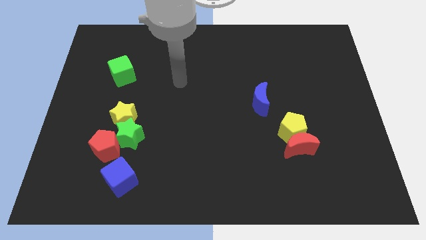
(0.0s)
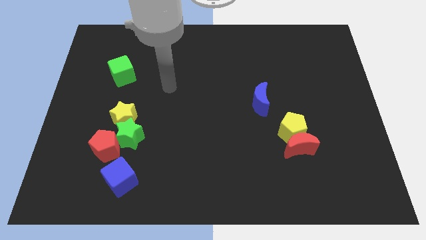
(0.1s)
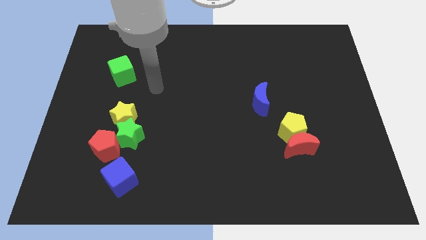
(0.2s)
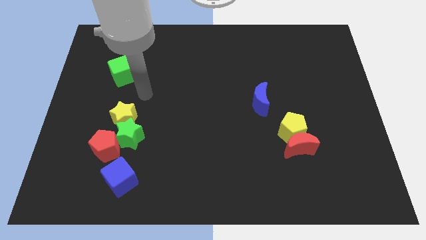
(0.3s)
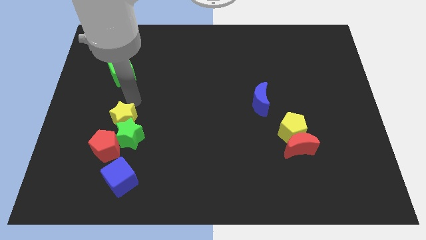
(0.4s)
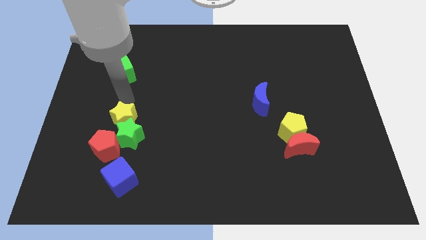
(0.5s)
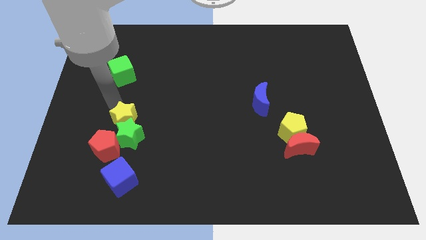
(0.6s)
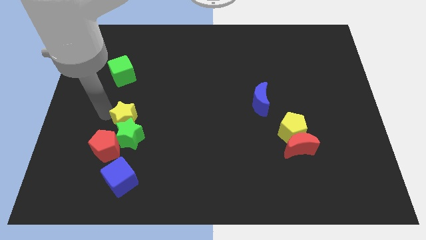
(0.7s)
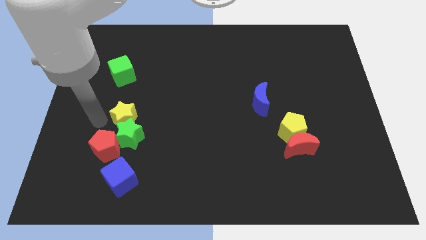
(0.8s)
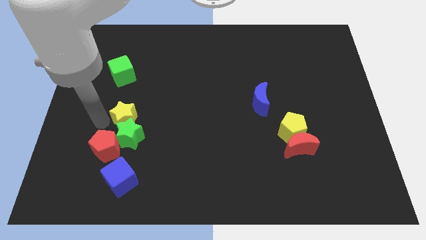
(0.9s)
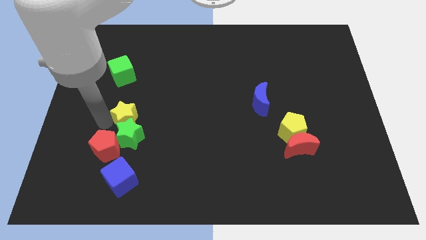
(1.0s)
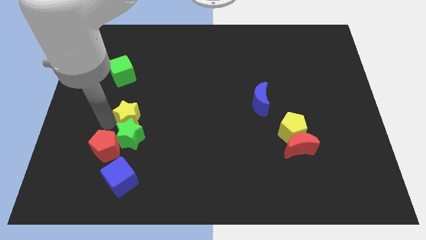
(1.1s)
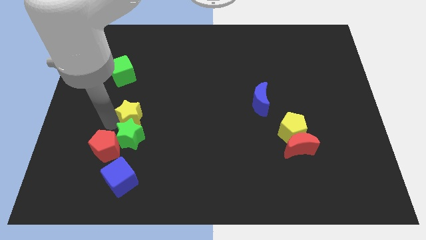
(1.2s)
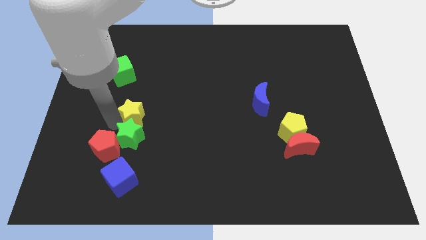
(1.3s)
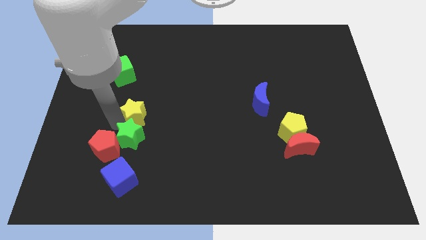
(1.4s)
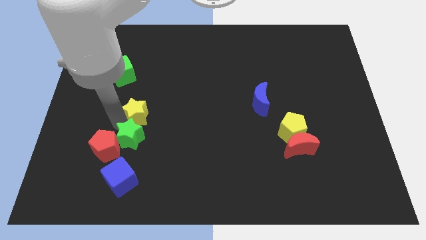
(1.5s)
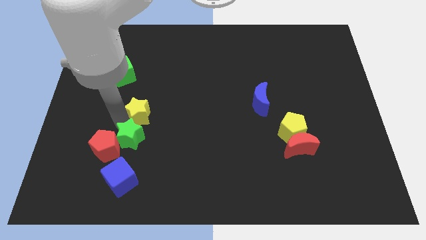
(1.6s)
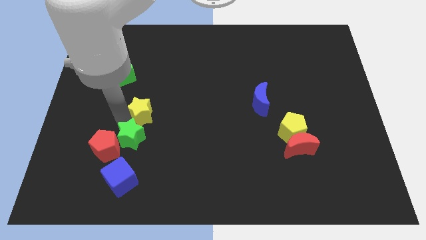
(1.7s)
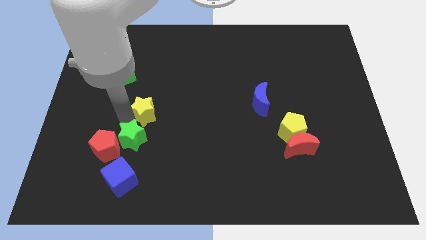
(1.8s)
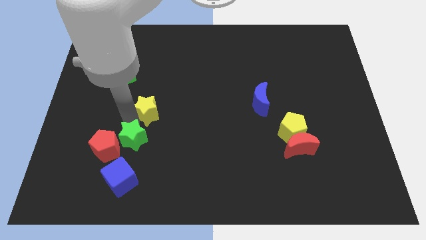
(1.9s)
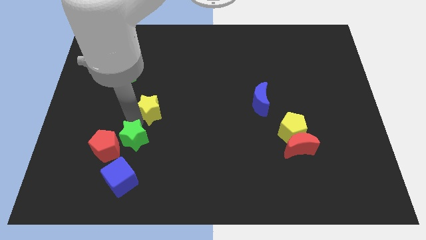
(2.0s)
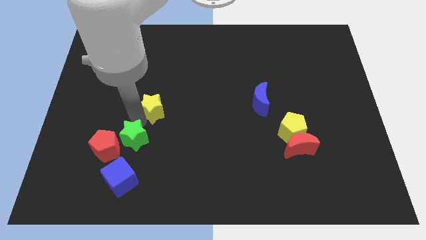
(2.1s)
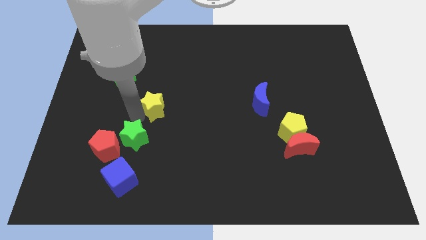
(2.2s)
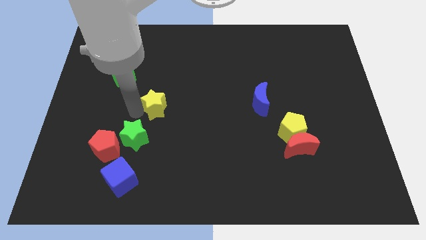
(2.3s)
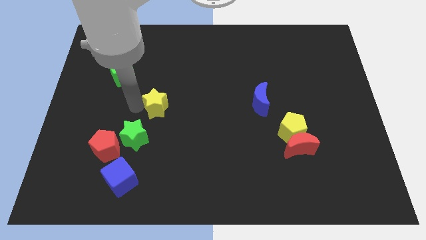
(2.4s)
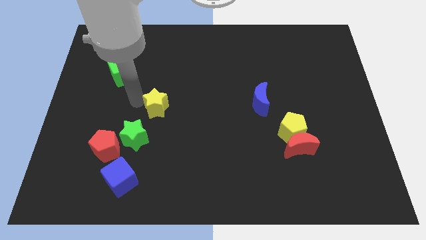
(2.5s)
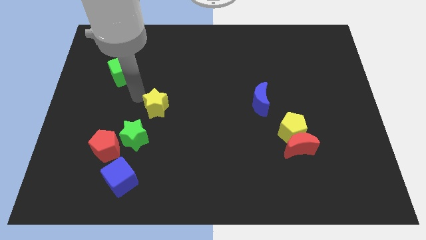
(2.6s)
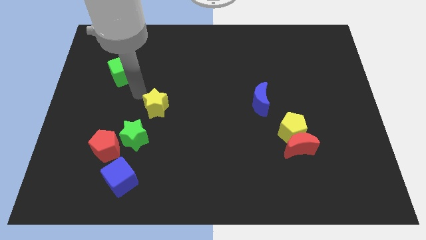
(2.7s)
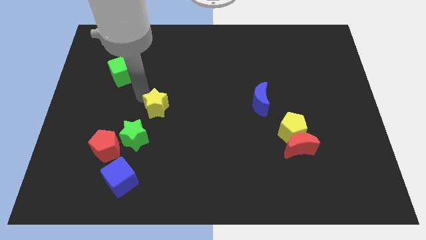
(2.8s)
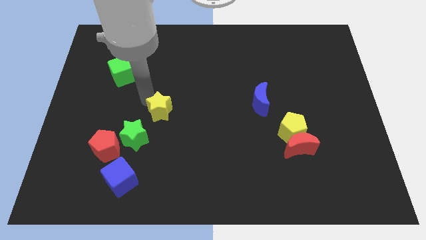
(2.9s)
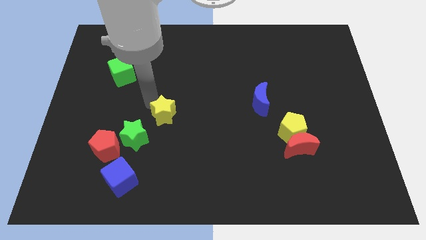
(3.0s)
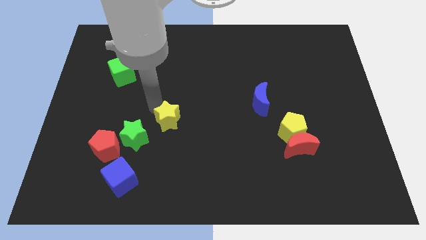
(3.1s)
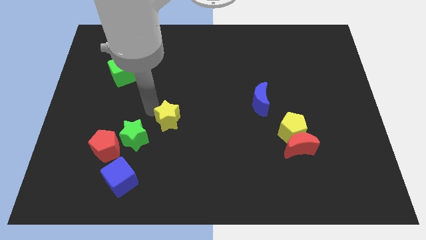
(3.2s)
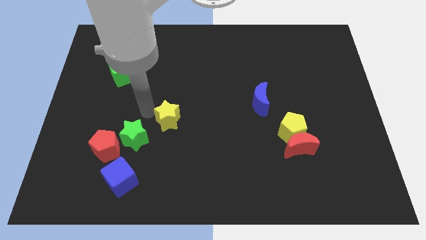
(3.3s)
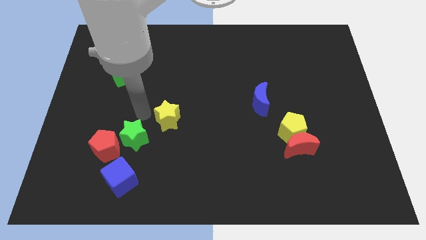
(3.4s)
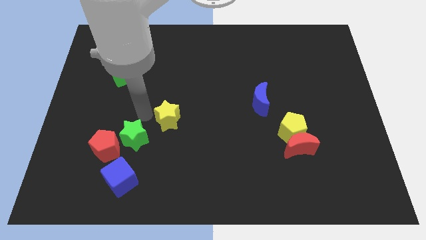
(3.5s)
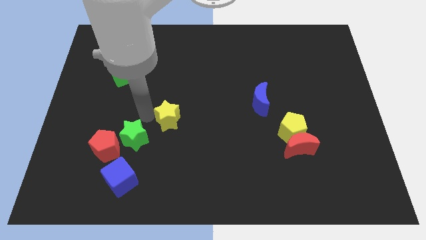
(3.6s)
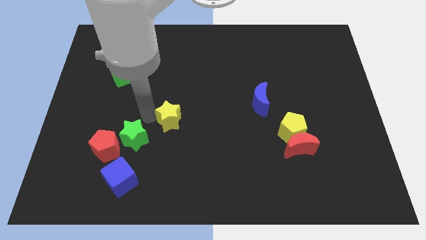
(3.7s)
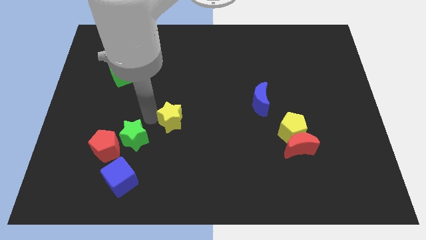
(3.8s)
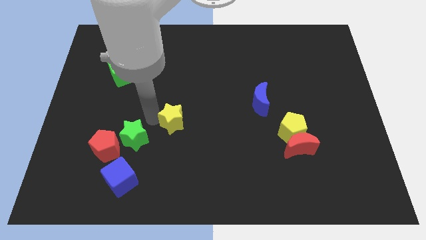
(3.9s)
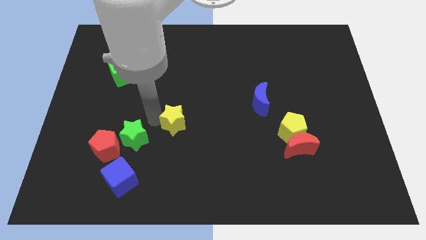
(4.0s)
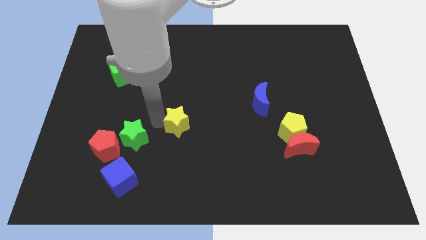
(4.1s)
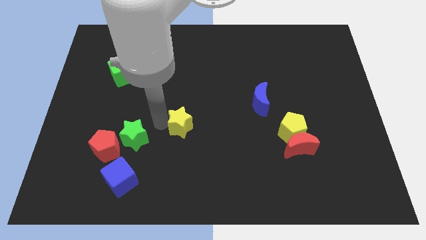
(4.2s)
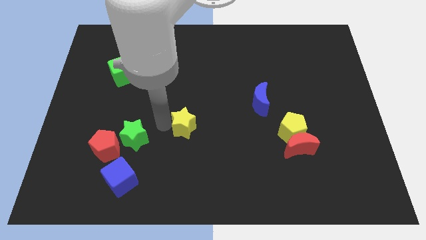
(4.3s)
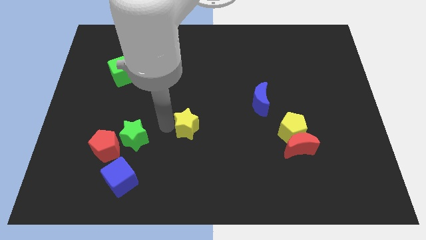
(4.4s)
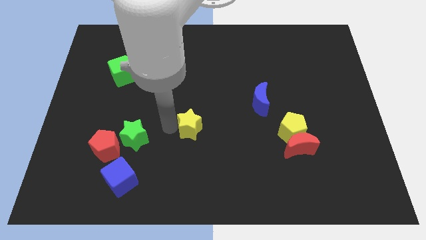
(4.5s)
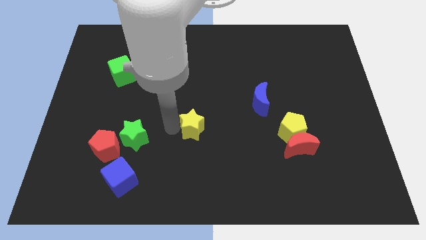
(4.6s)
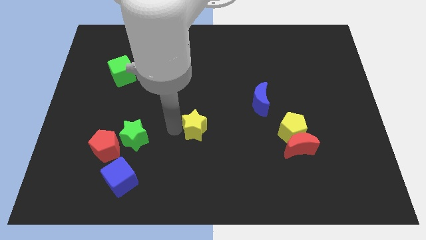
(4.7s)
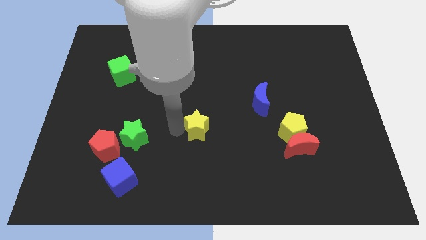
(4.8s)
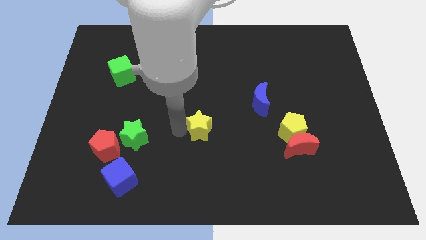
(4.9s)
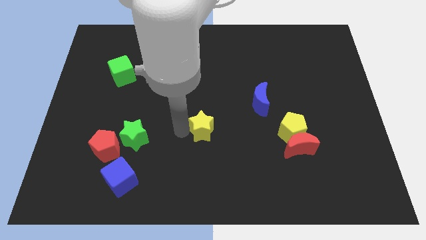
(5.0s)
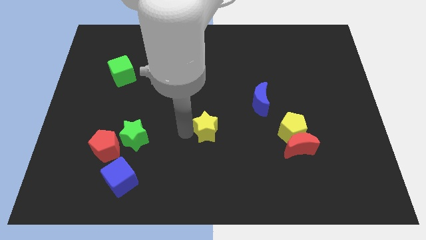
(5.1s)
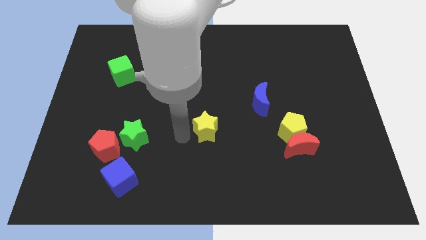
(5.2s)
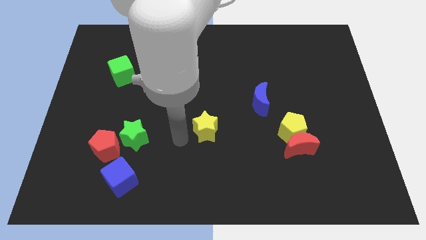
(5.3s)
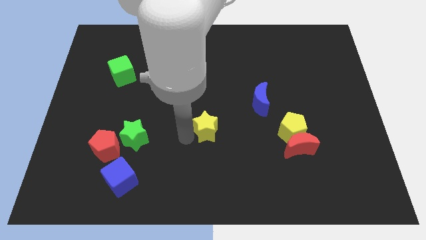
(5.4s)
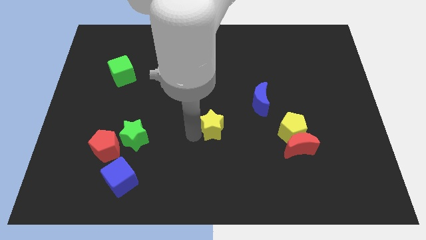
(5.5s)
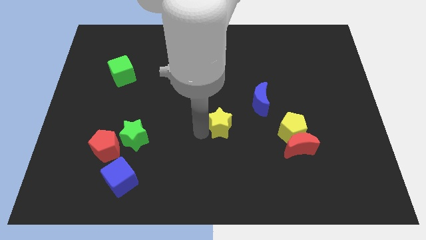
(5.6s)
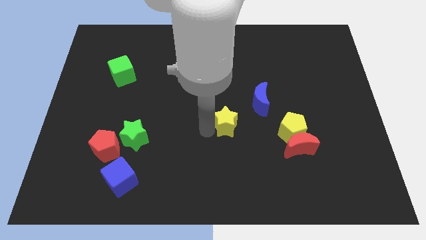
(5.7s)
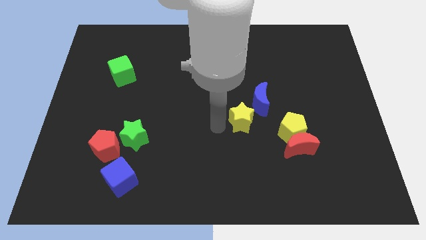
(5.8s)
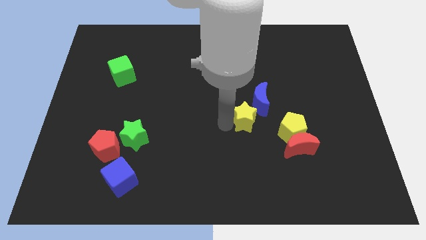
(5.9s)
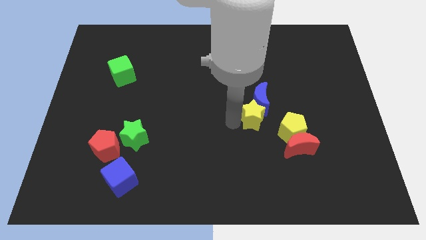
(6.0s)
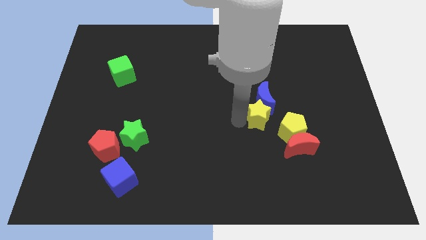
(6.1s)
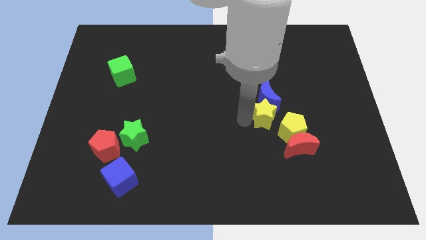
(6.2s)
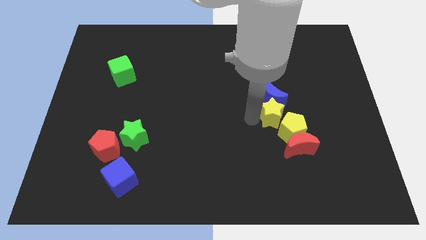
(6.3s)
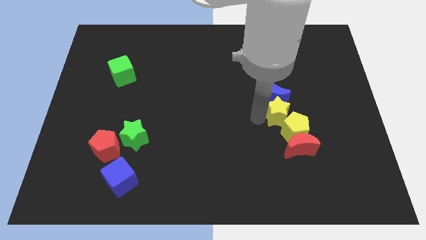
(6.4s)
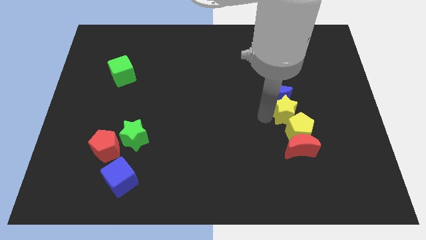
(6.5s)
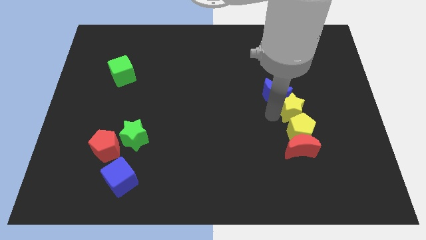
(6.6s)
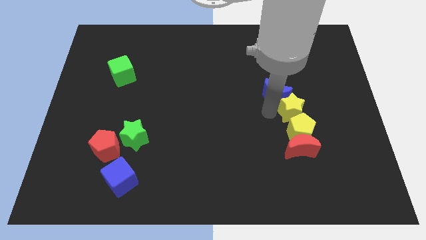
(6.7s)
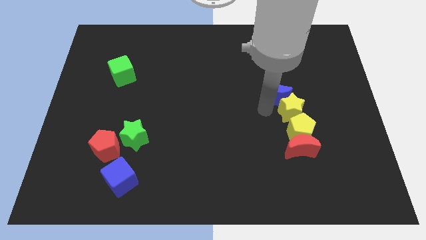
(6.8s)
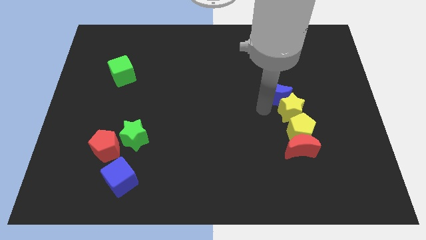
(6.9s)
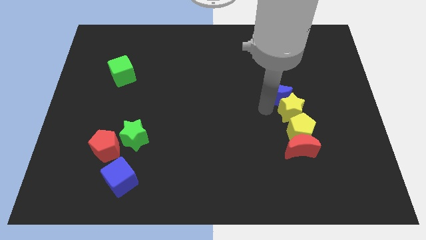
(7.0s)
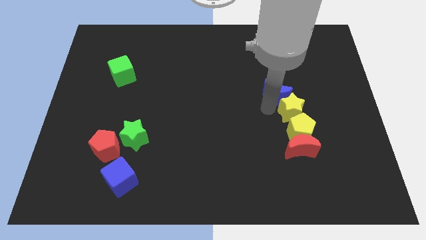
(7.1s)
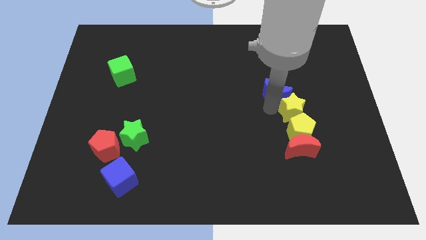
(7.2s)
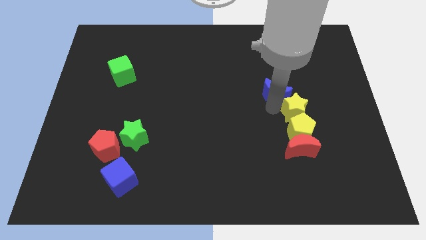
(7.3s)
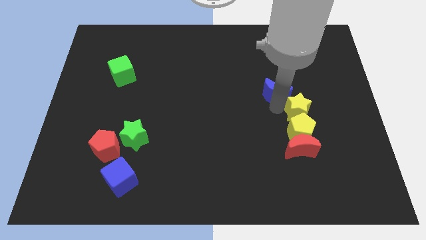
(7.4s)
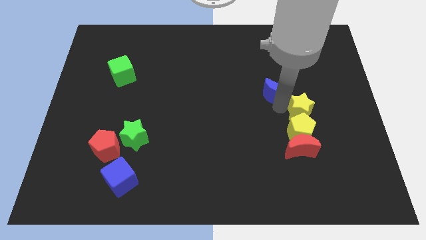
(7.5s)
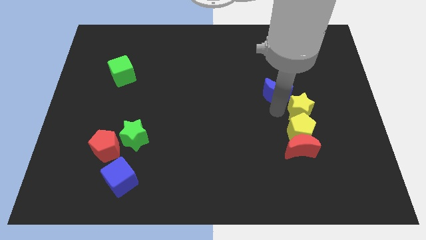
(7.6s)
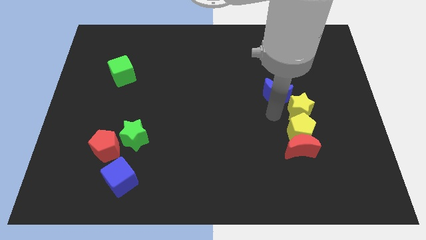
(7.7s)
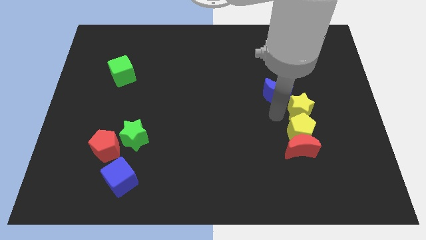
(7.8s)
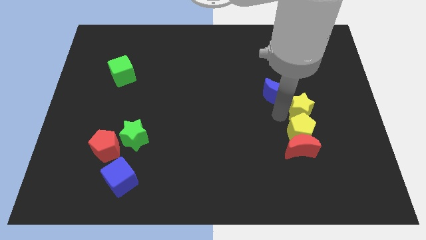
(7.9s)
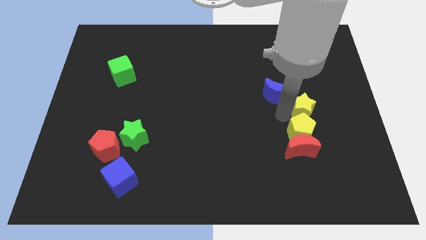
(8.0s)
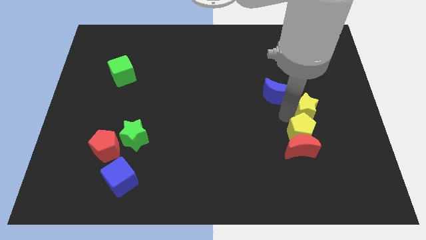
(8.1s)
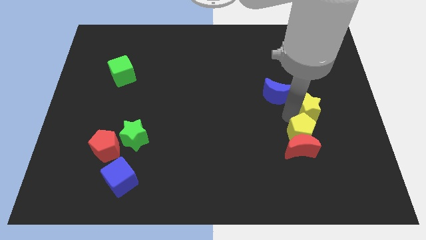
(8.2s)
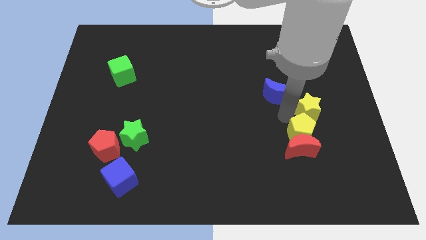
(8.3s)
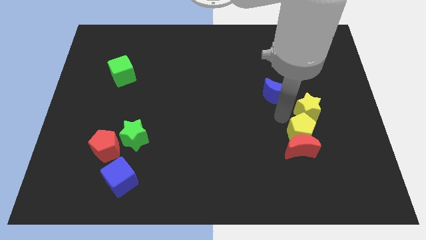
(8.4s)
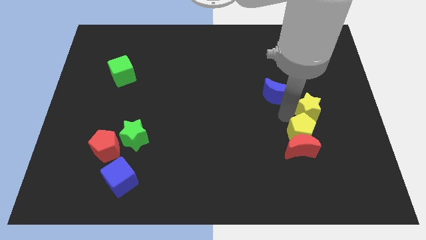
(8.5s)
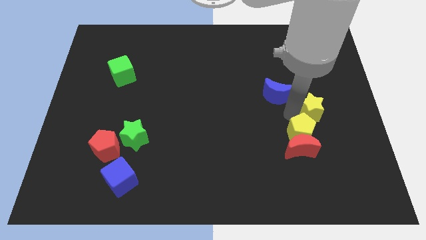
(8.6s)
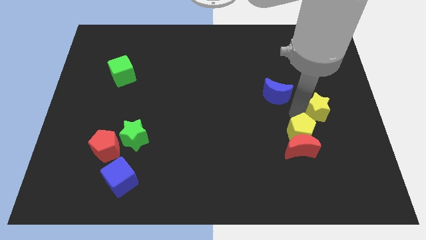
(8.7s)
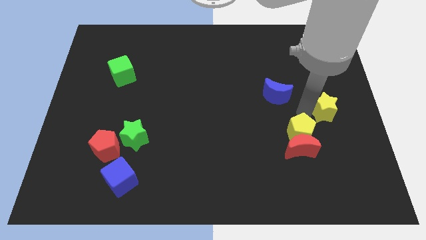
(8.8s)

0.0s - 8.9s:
slide the yellow star to the right side of the board
